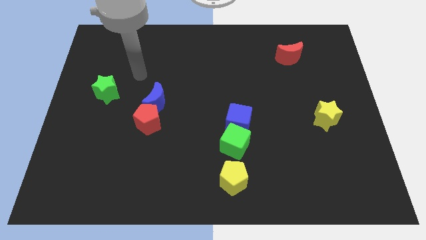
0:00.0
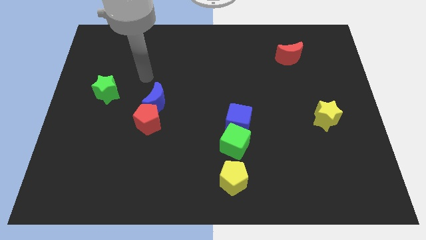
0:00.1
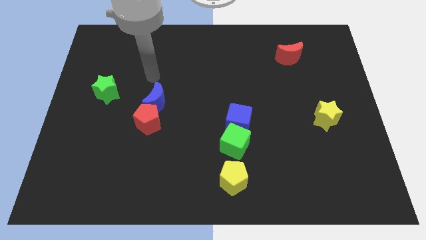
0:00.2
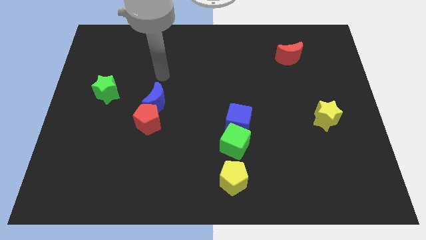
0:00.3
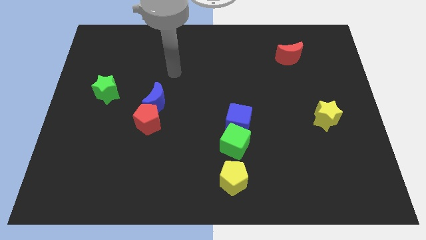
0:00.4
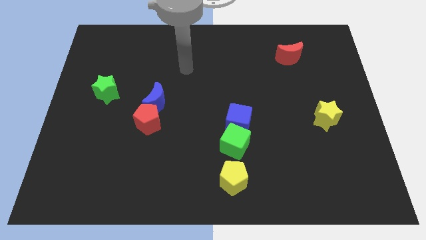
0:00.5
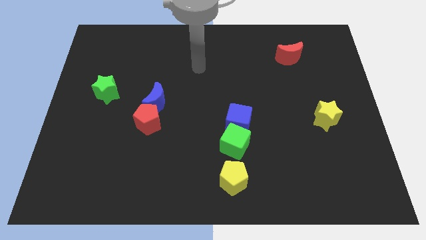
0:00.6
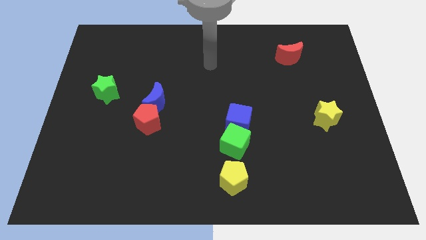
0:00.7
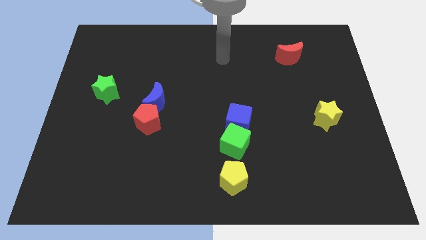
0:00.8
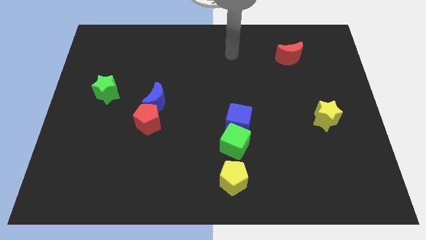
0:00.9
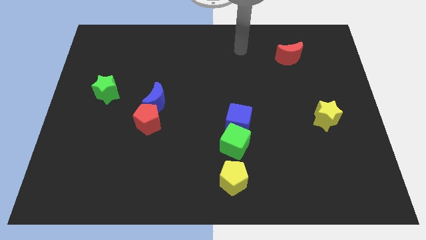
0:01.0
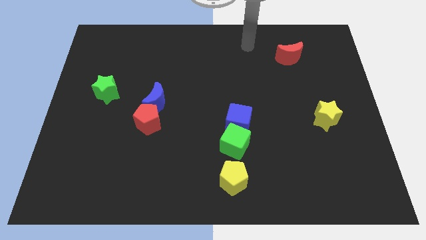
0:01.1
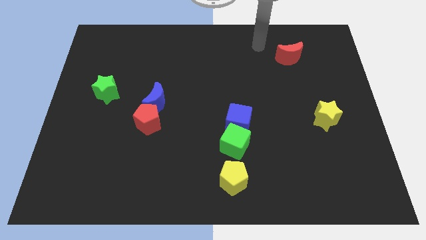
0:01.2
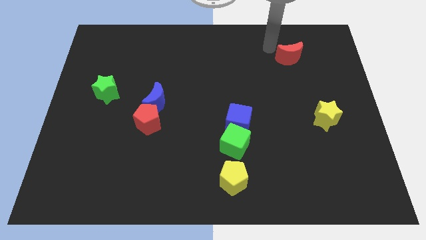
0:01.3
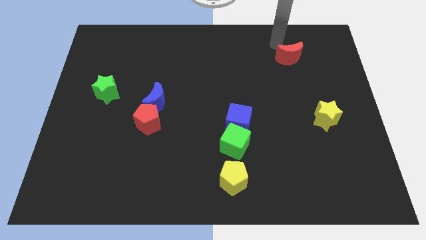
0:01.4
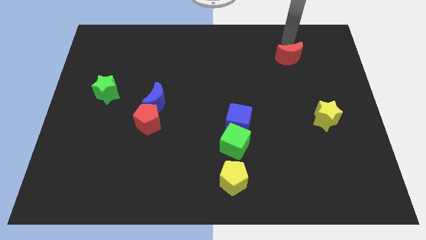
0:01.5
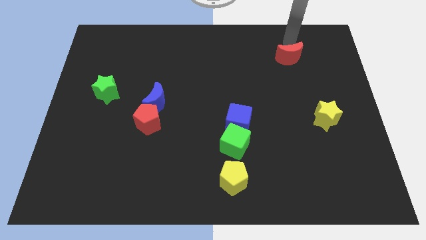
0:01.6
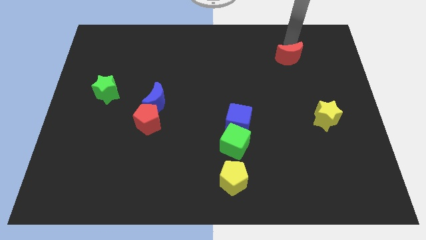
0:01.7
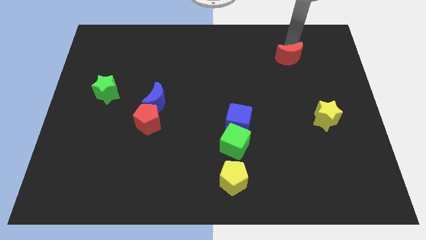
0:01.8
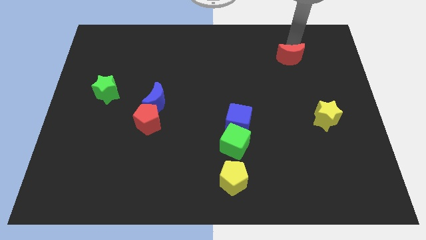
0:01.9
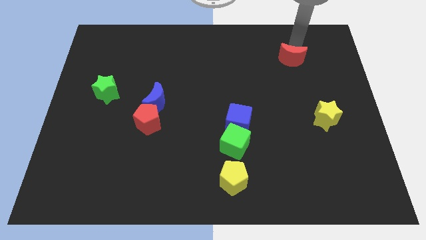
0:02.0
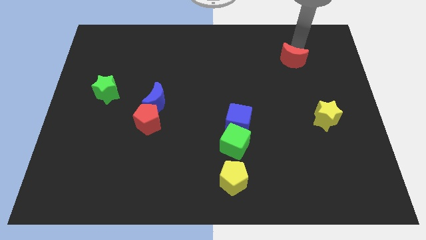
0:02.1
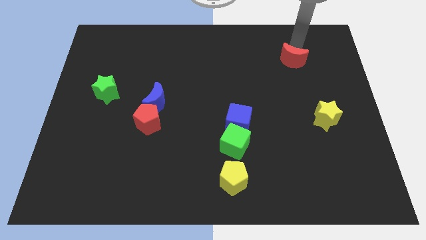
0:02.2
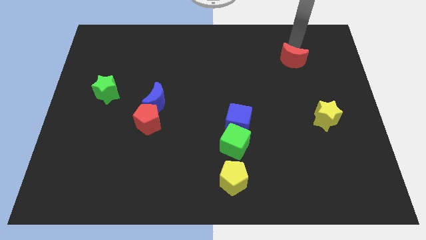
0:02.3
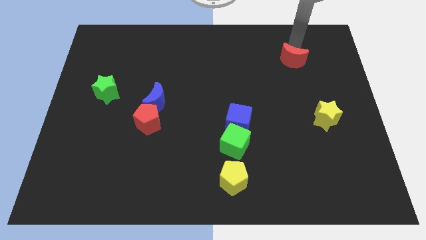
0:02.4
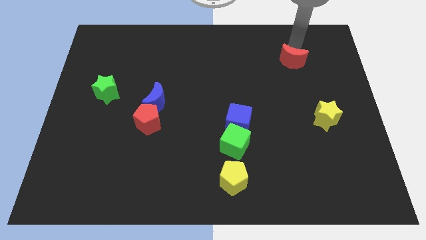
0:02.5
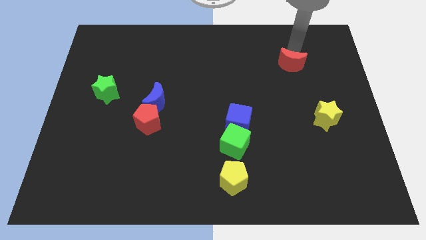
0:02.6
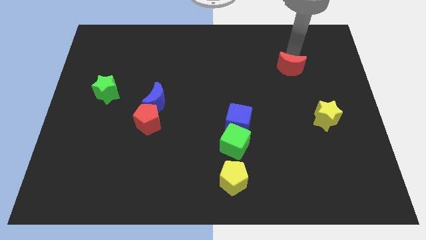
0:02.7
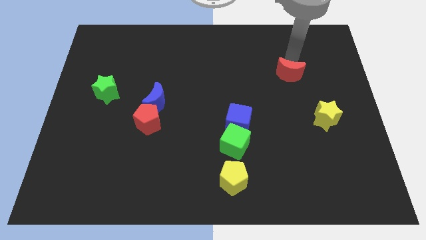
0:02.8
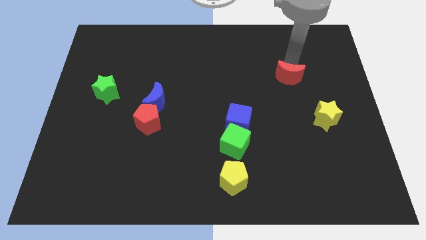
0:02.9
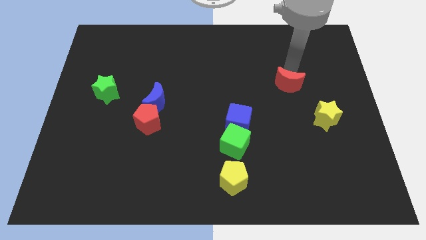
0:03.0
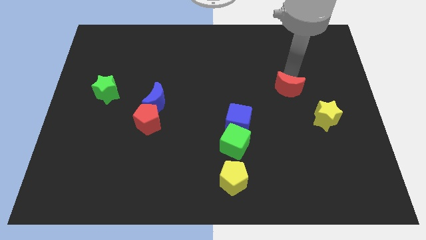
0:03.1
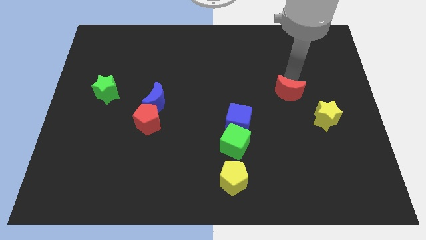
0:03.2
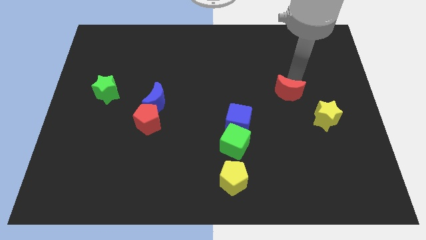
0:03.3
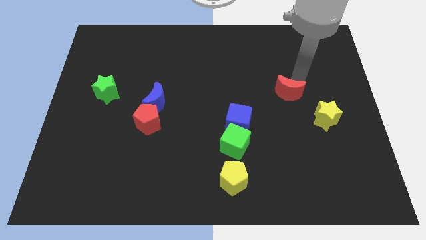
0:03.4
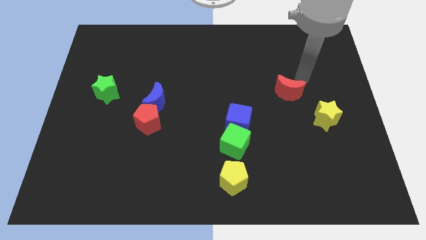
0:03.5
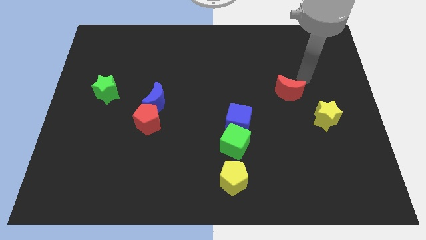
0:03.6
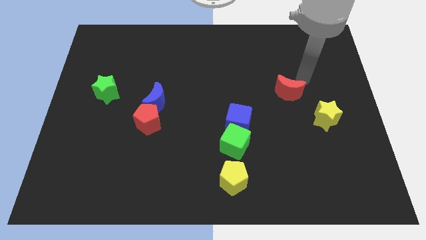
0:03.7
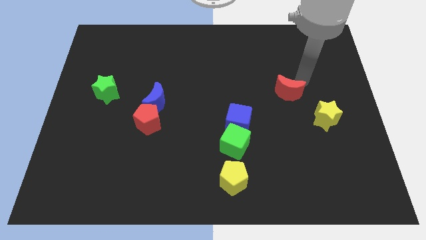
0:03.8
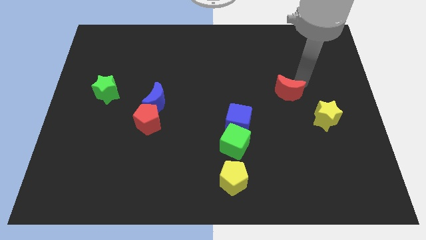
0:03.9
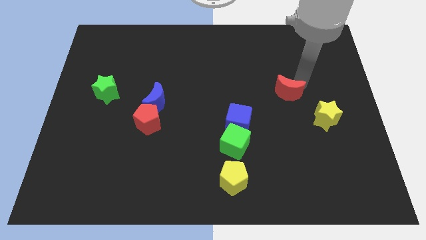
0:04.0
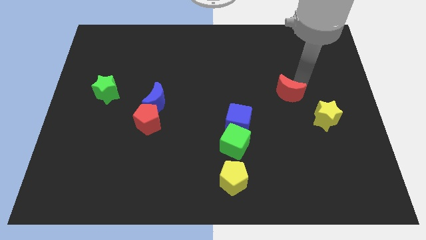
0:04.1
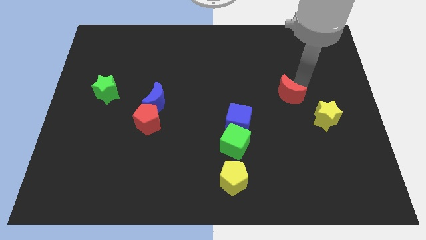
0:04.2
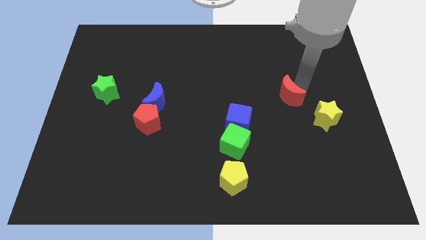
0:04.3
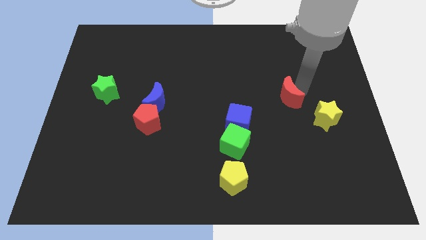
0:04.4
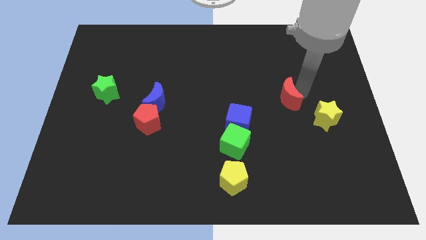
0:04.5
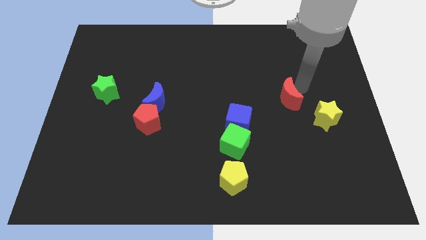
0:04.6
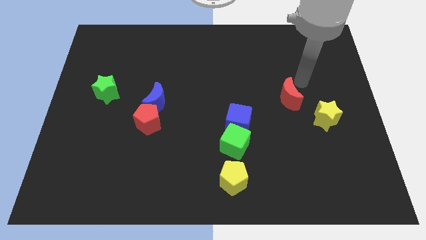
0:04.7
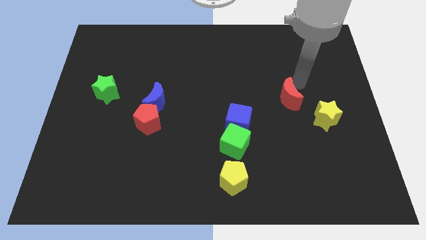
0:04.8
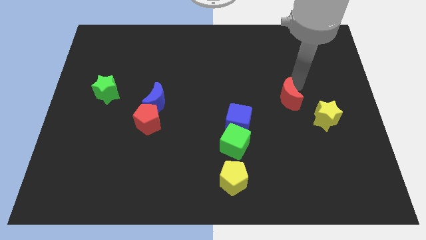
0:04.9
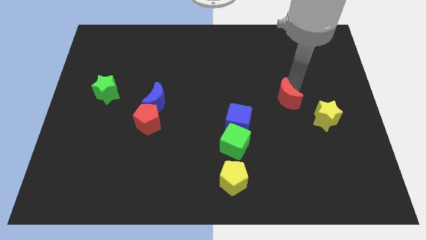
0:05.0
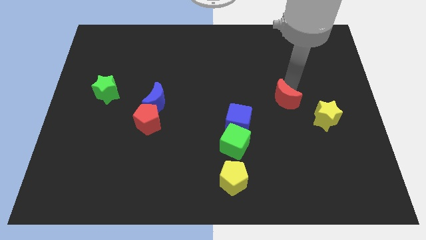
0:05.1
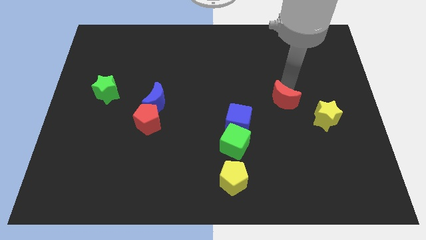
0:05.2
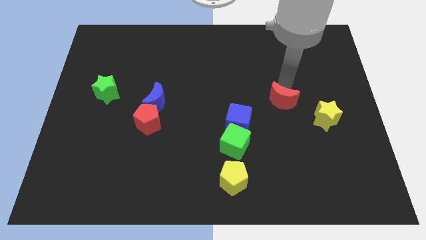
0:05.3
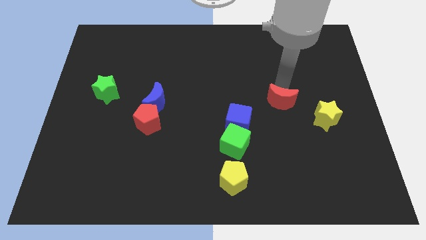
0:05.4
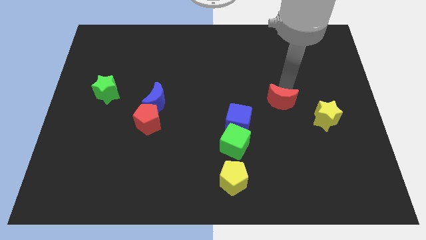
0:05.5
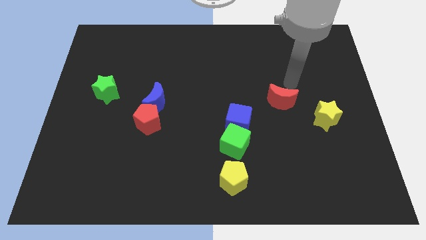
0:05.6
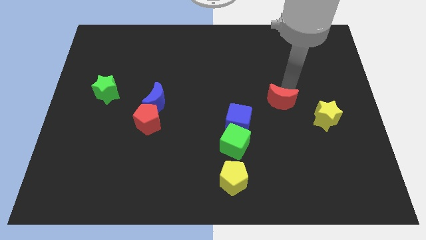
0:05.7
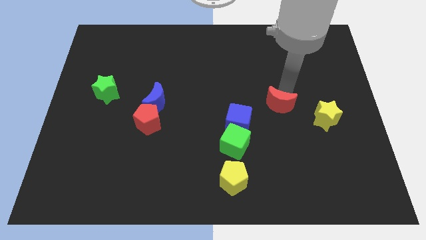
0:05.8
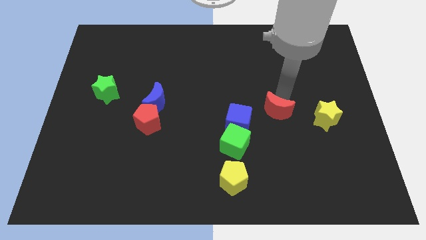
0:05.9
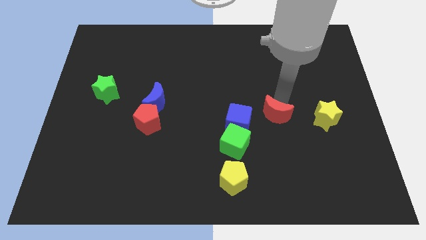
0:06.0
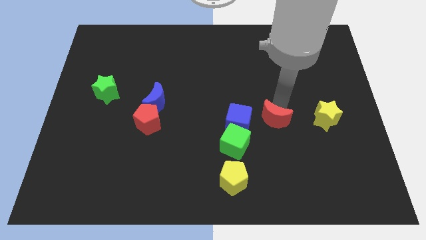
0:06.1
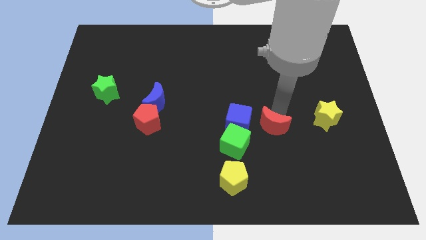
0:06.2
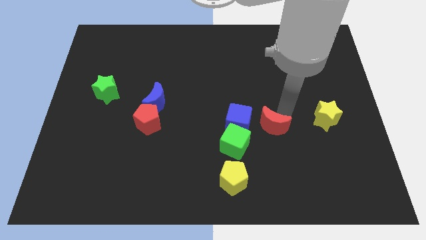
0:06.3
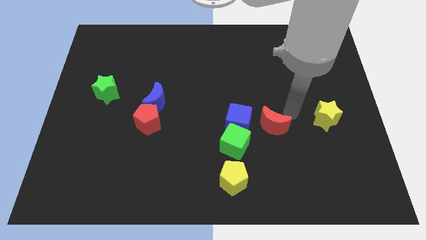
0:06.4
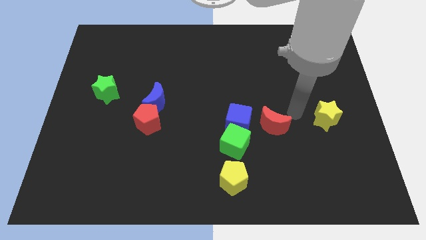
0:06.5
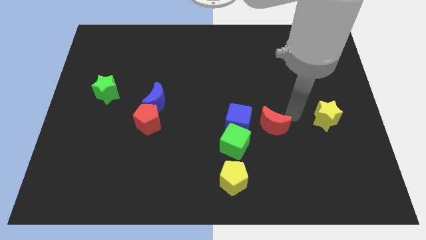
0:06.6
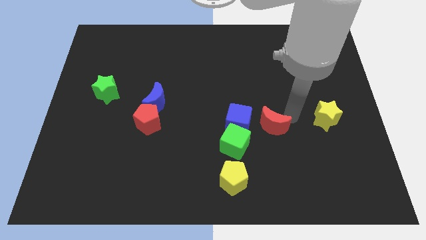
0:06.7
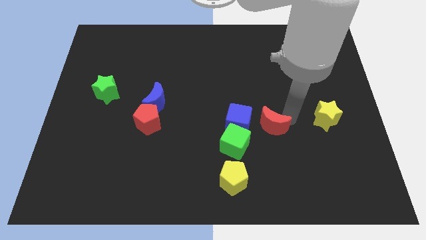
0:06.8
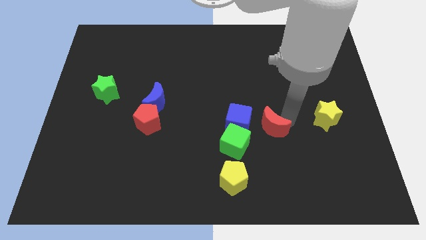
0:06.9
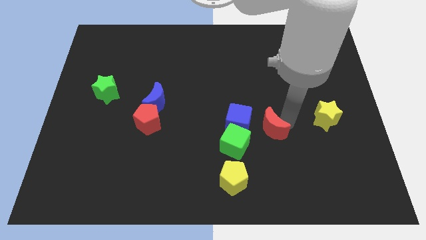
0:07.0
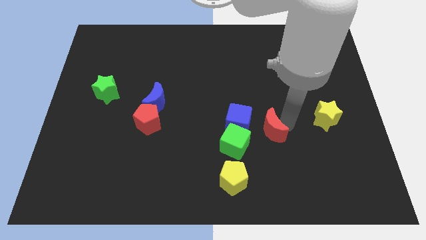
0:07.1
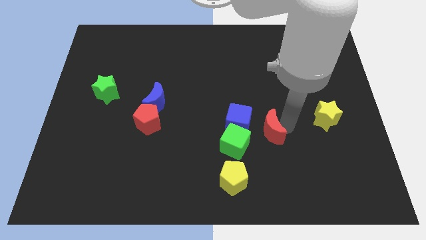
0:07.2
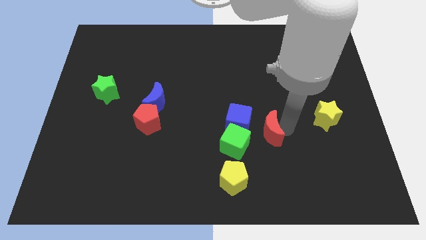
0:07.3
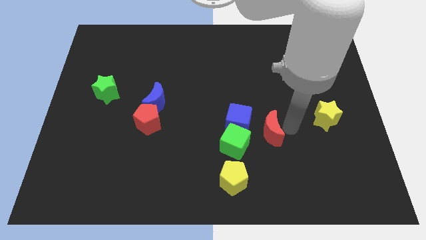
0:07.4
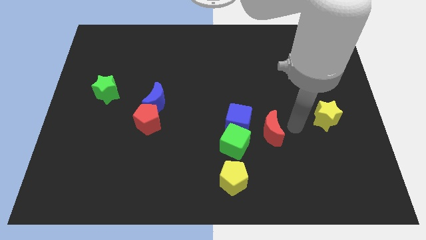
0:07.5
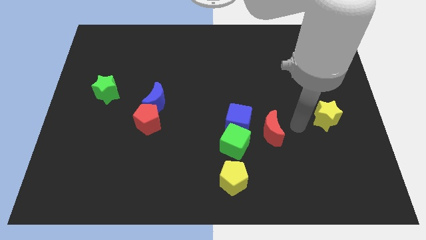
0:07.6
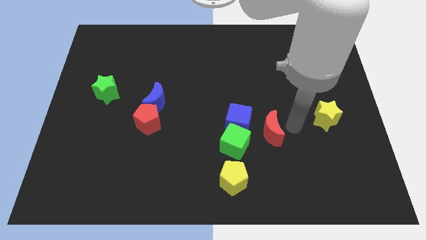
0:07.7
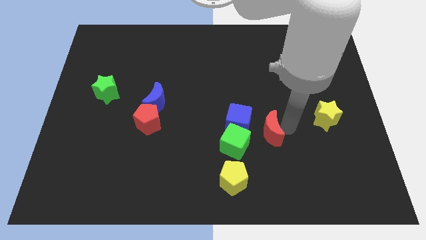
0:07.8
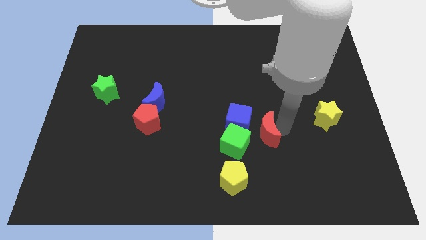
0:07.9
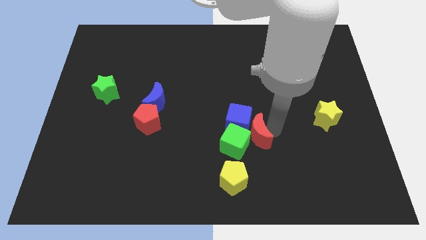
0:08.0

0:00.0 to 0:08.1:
move the red moon to the green cube
